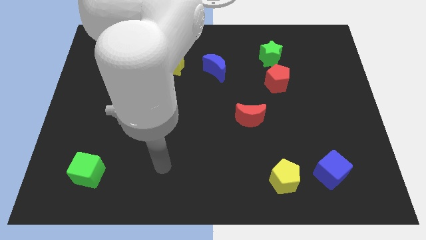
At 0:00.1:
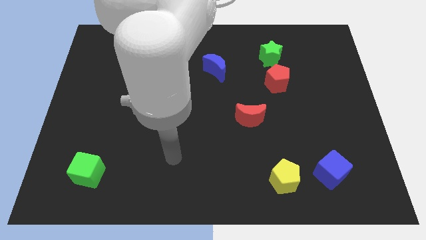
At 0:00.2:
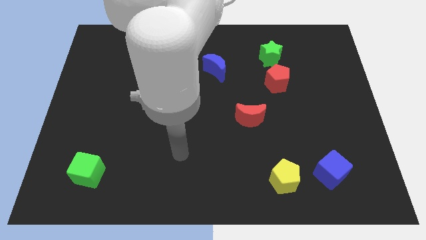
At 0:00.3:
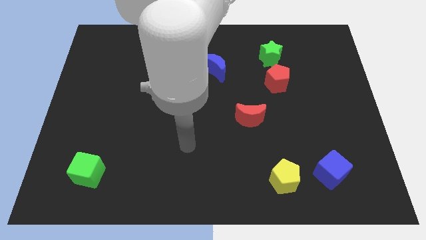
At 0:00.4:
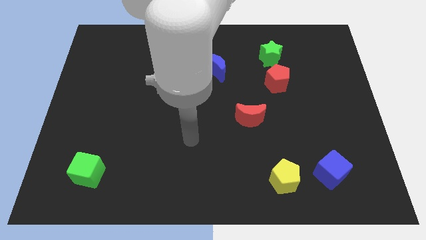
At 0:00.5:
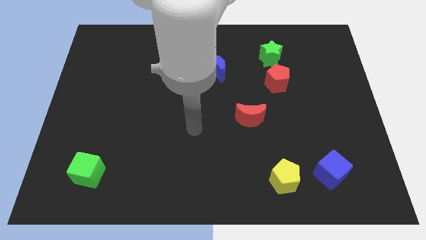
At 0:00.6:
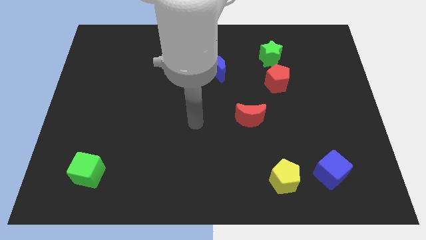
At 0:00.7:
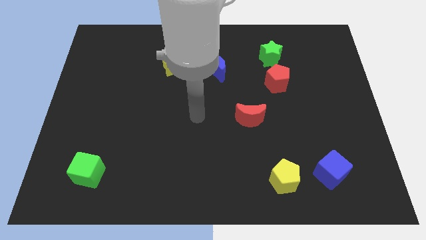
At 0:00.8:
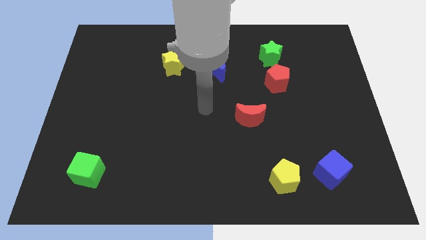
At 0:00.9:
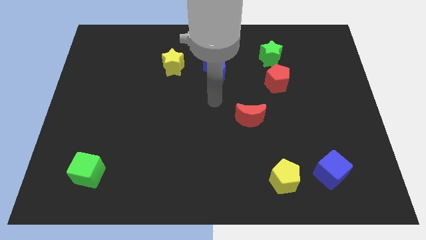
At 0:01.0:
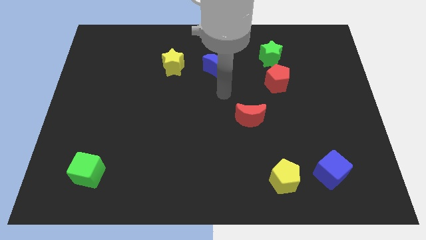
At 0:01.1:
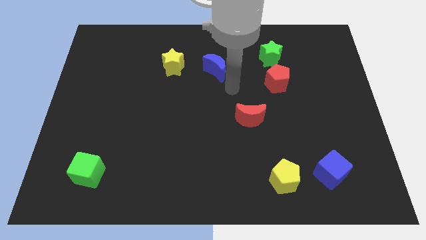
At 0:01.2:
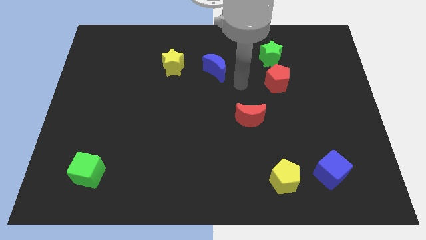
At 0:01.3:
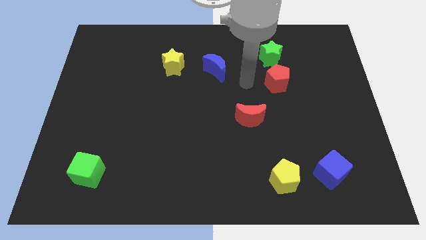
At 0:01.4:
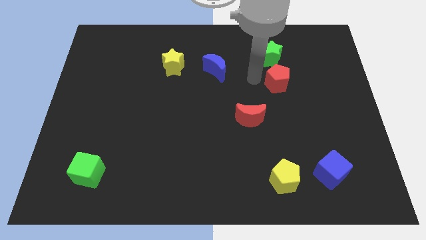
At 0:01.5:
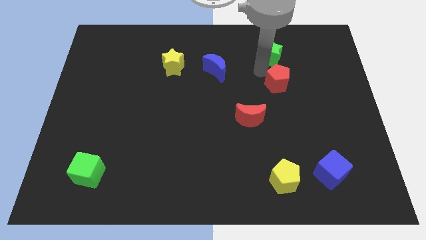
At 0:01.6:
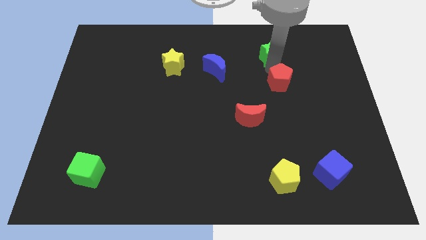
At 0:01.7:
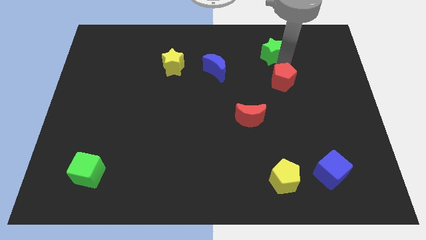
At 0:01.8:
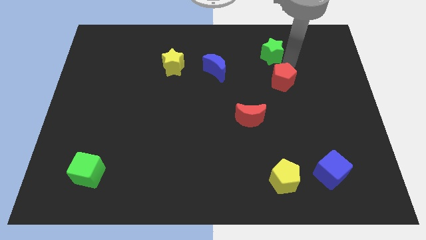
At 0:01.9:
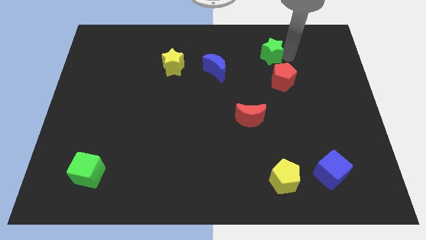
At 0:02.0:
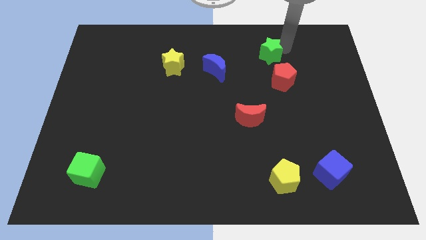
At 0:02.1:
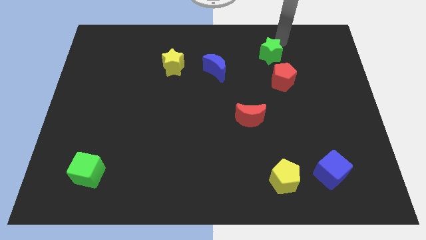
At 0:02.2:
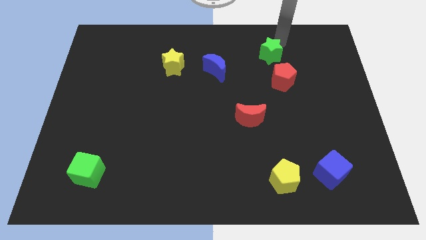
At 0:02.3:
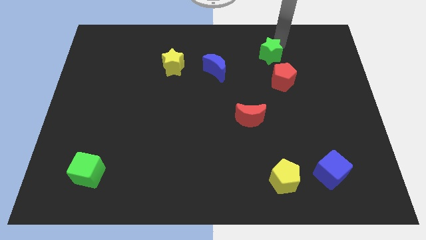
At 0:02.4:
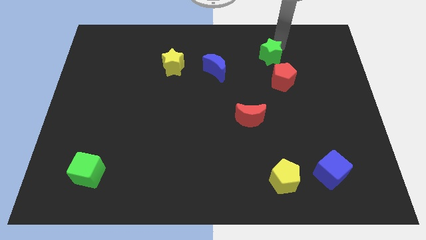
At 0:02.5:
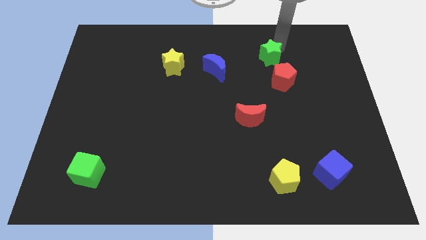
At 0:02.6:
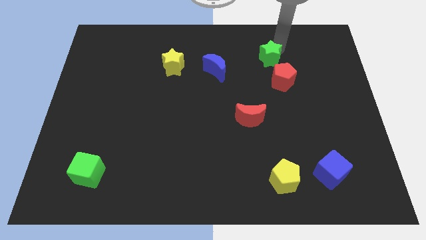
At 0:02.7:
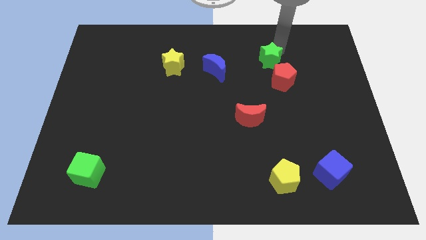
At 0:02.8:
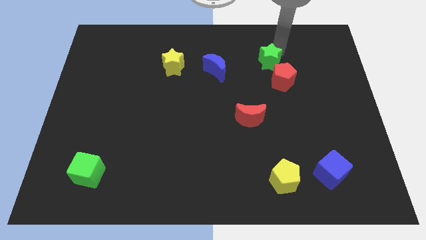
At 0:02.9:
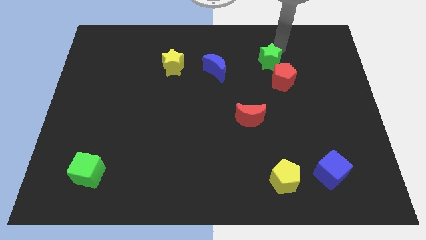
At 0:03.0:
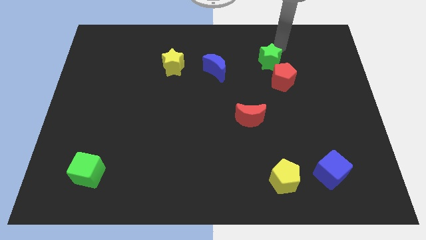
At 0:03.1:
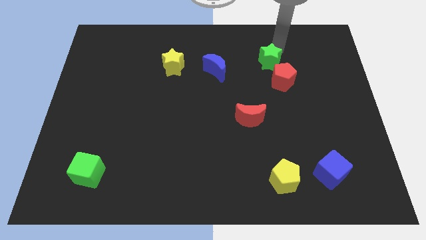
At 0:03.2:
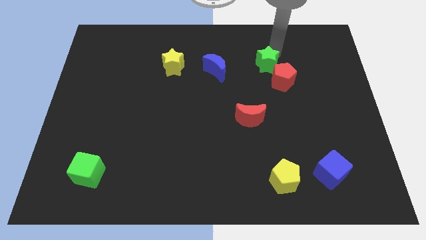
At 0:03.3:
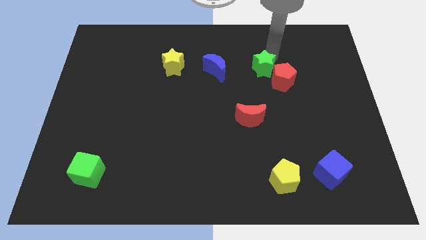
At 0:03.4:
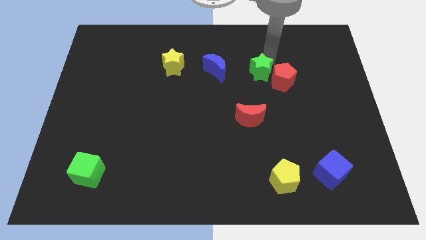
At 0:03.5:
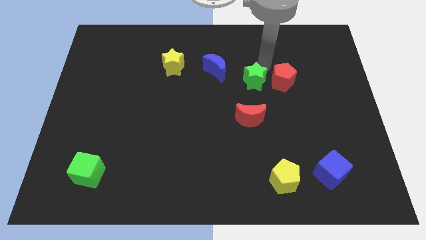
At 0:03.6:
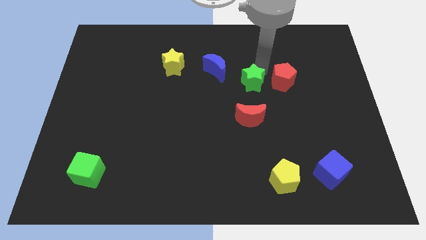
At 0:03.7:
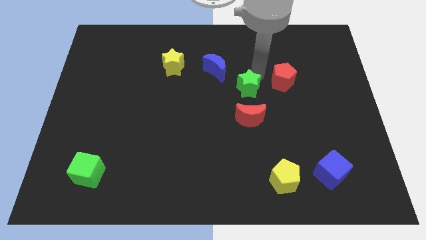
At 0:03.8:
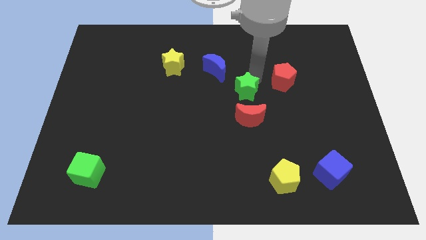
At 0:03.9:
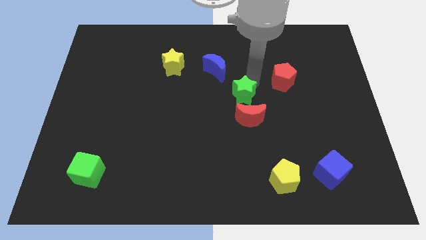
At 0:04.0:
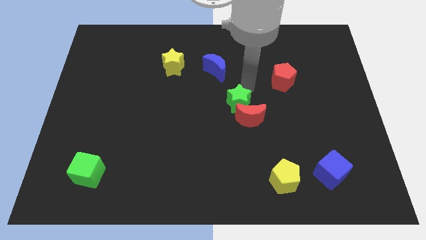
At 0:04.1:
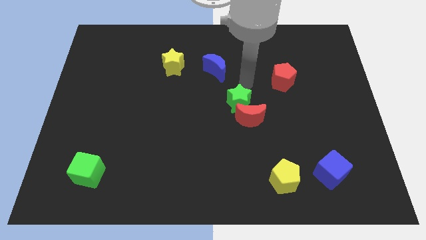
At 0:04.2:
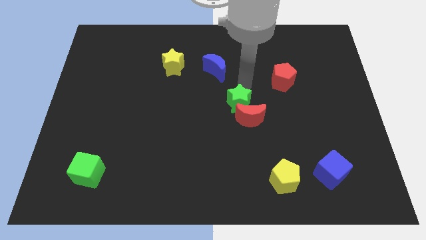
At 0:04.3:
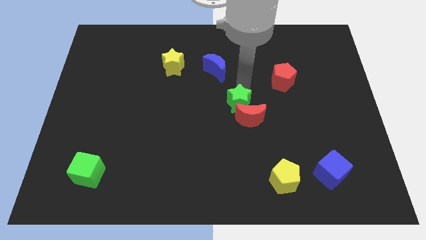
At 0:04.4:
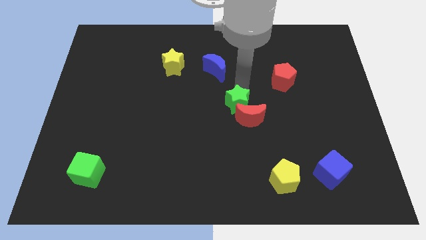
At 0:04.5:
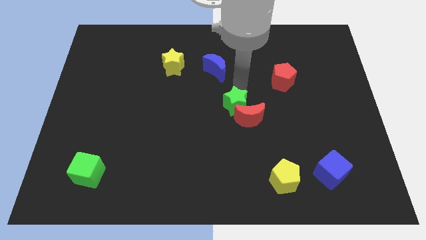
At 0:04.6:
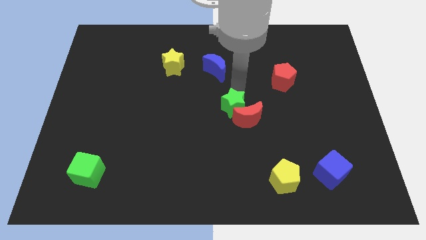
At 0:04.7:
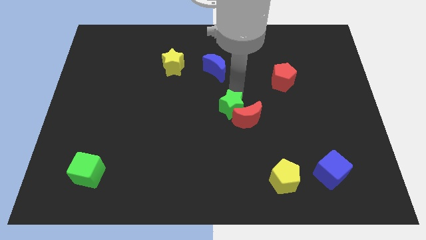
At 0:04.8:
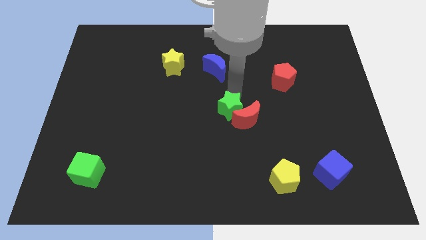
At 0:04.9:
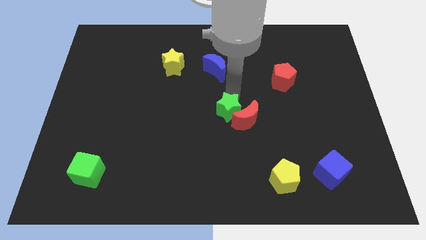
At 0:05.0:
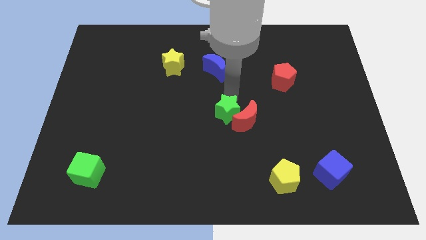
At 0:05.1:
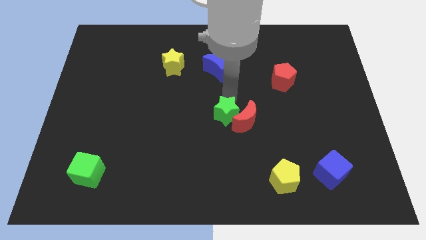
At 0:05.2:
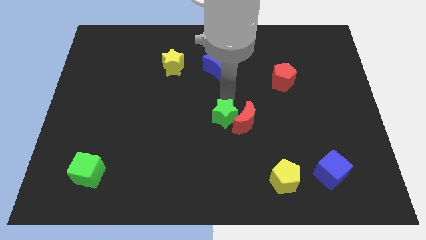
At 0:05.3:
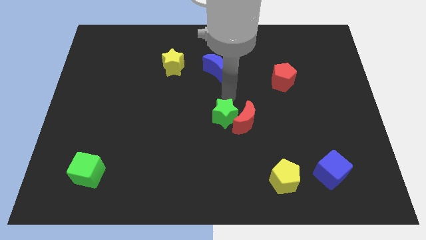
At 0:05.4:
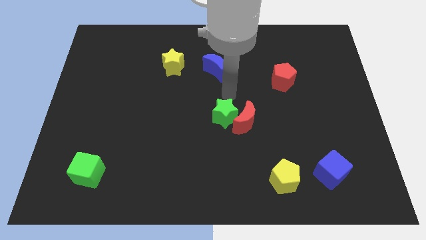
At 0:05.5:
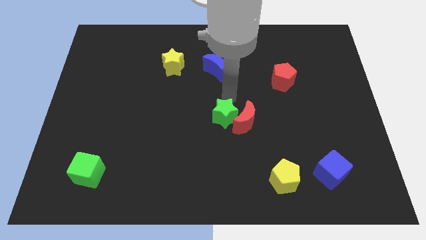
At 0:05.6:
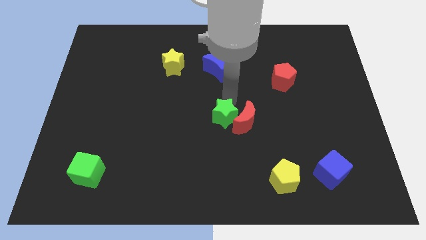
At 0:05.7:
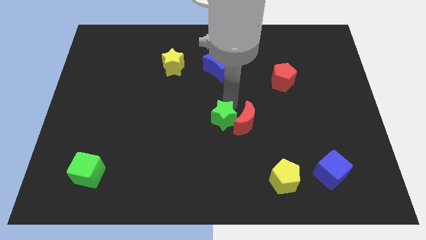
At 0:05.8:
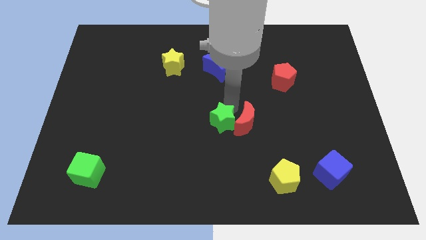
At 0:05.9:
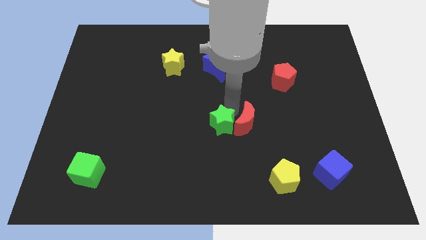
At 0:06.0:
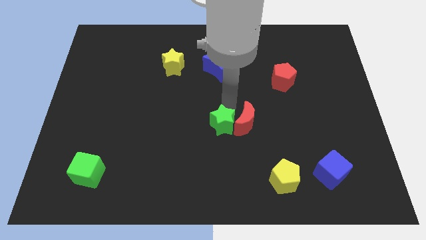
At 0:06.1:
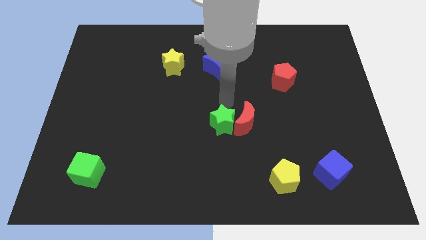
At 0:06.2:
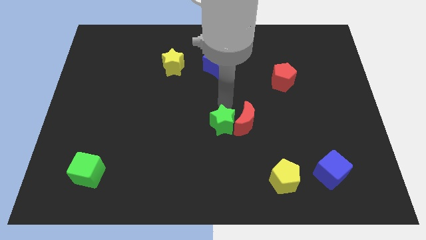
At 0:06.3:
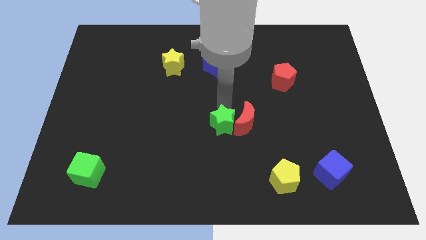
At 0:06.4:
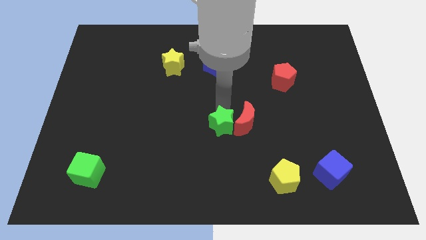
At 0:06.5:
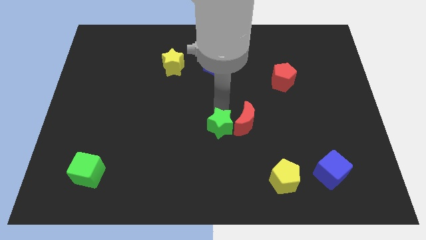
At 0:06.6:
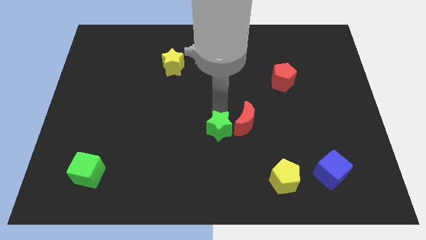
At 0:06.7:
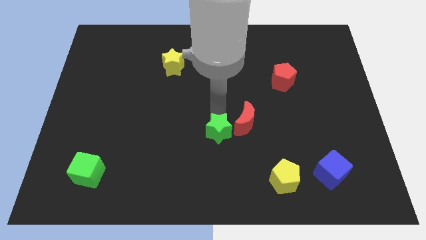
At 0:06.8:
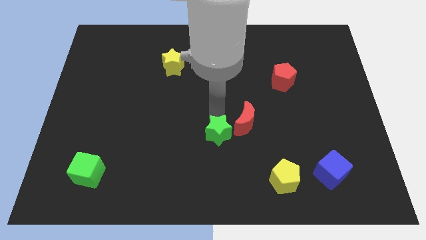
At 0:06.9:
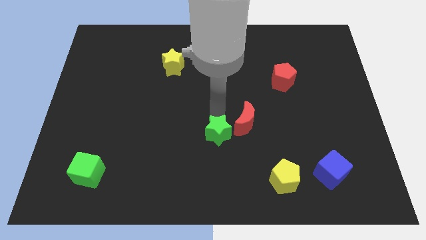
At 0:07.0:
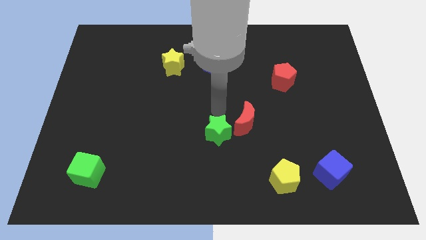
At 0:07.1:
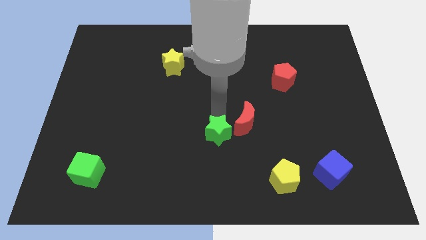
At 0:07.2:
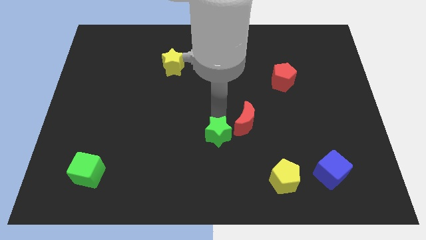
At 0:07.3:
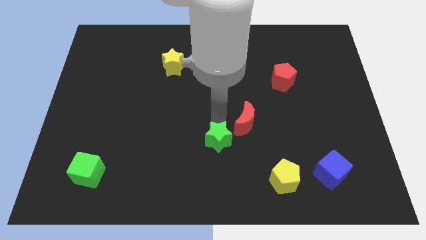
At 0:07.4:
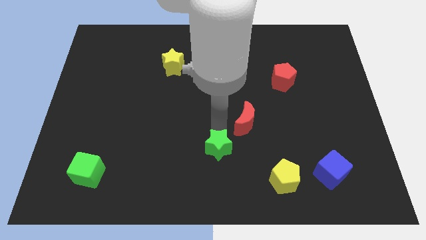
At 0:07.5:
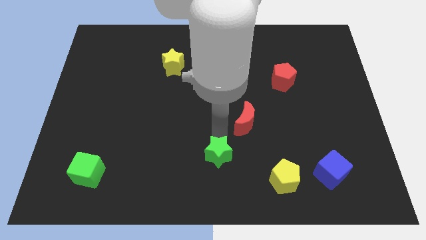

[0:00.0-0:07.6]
move the green star to the bottom
